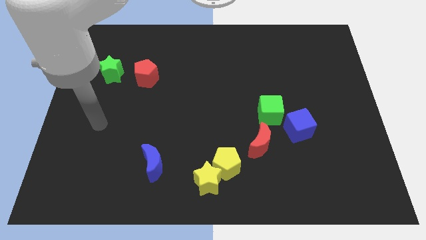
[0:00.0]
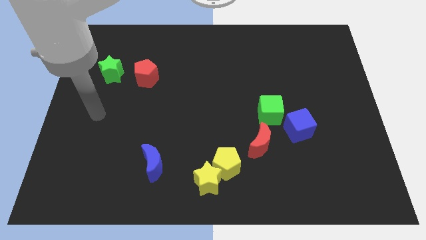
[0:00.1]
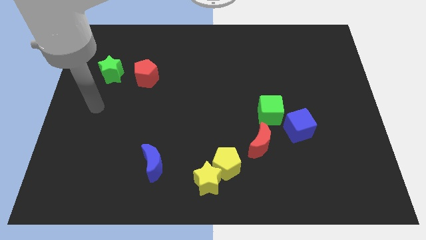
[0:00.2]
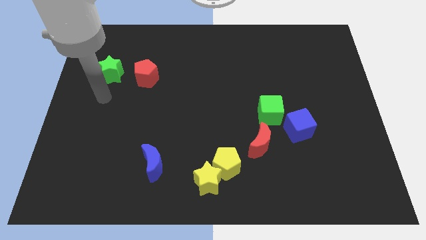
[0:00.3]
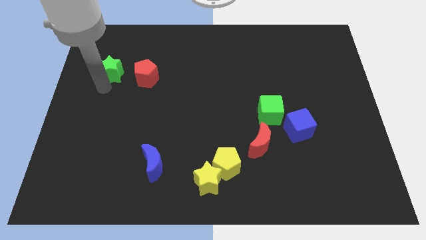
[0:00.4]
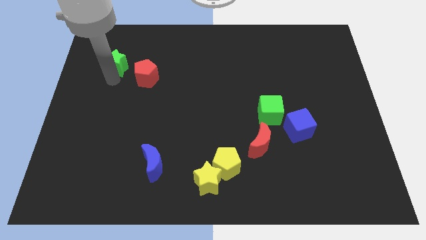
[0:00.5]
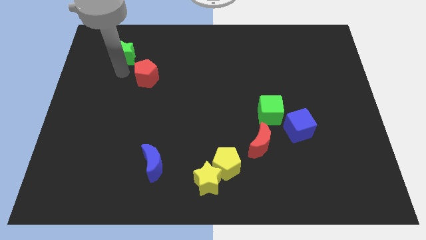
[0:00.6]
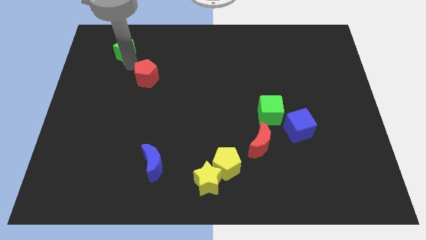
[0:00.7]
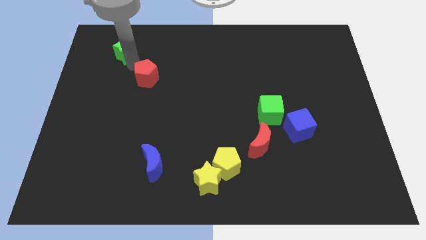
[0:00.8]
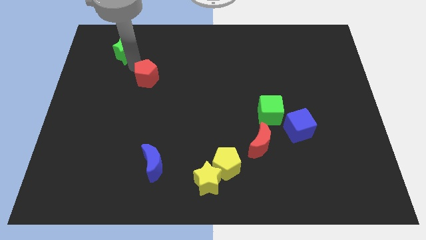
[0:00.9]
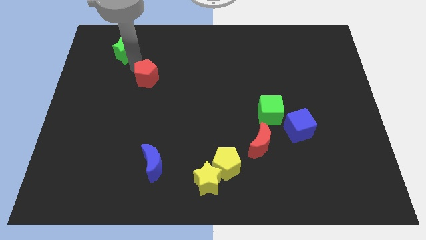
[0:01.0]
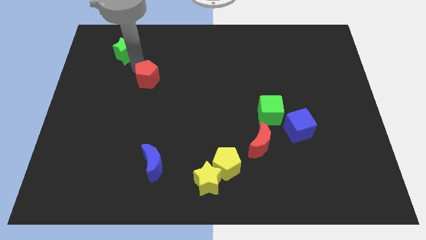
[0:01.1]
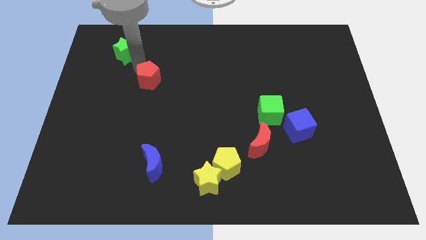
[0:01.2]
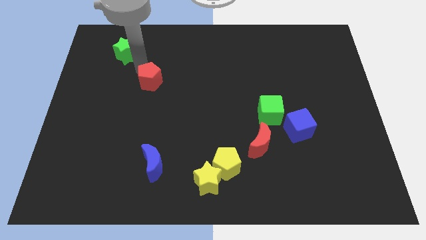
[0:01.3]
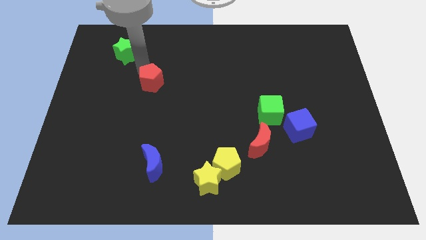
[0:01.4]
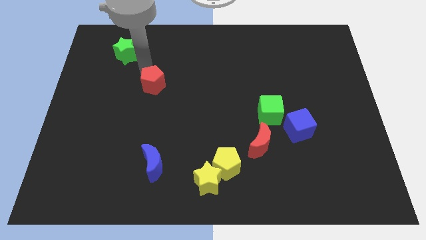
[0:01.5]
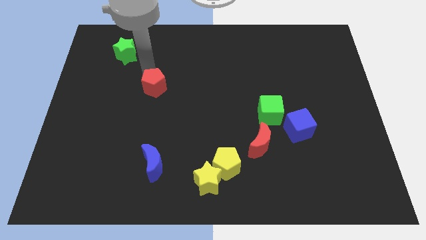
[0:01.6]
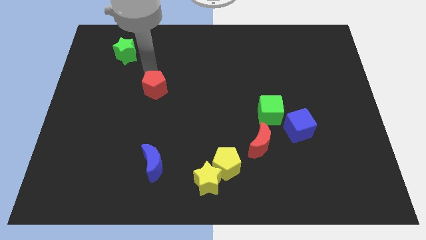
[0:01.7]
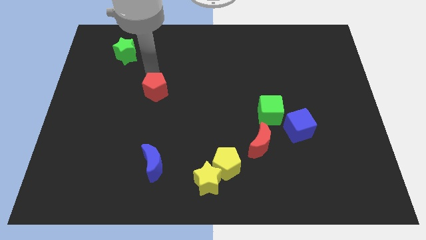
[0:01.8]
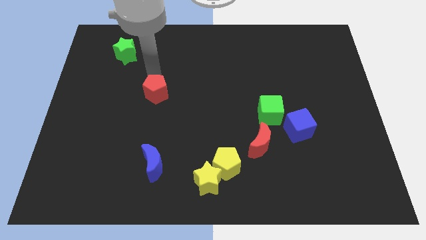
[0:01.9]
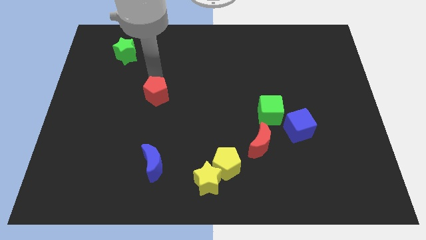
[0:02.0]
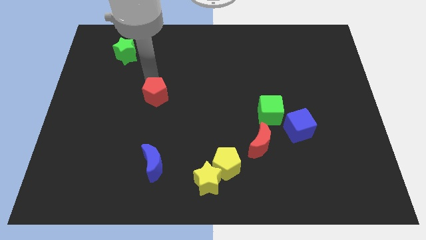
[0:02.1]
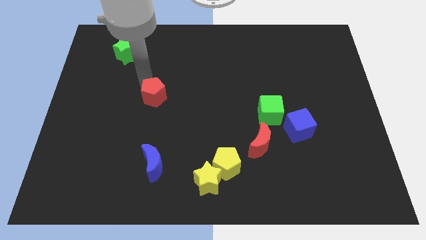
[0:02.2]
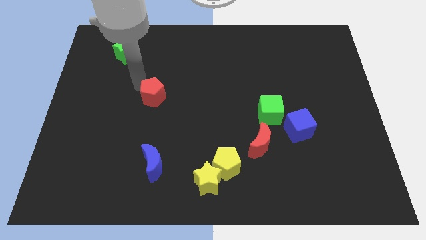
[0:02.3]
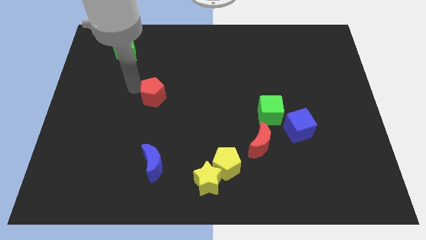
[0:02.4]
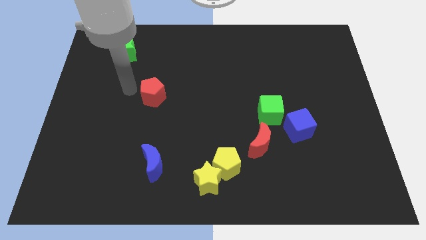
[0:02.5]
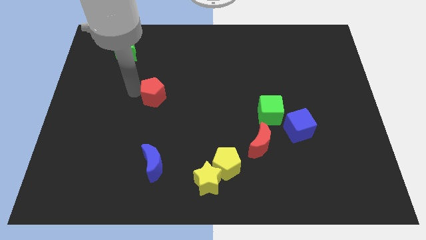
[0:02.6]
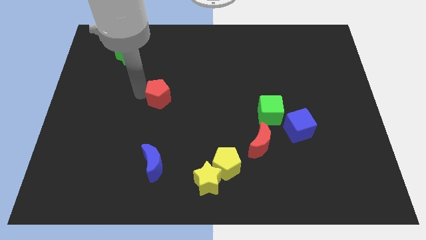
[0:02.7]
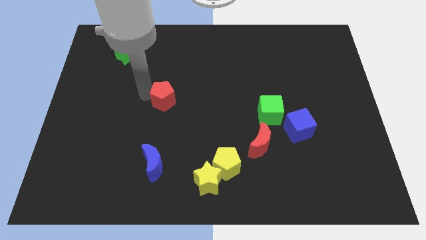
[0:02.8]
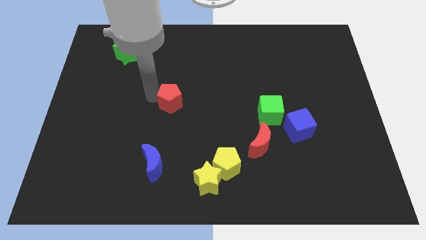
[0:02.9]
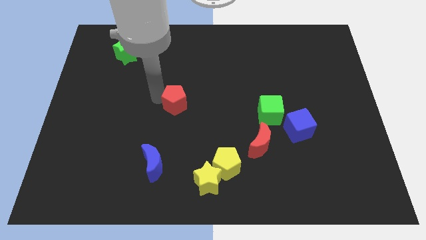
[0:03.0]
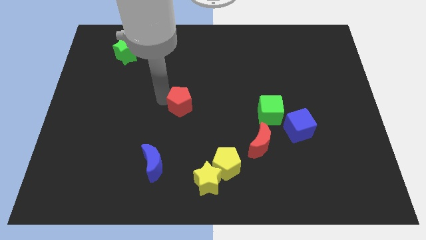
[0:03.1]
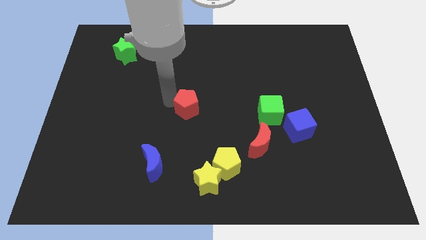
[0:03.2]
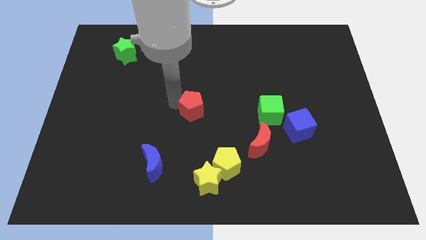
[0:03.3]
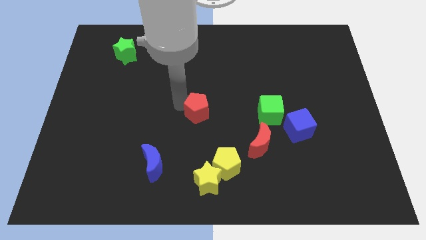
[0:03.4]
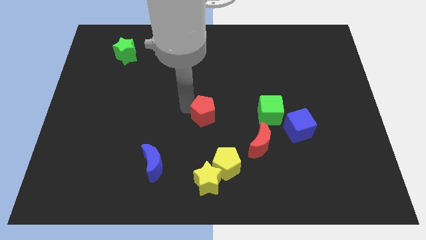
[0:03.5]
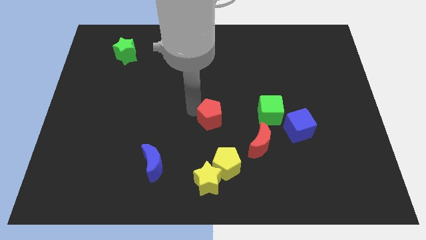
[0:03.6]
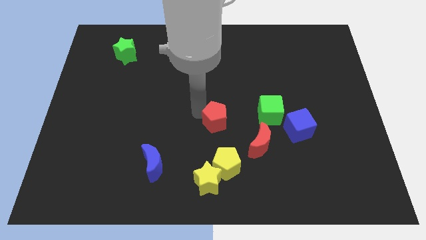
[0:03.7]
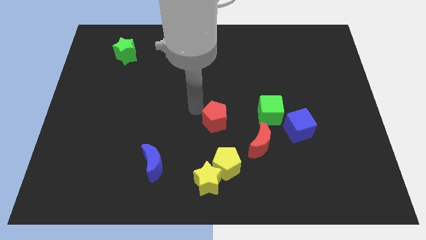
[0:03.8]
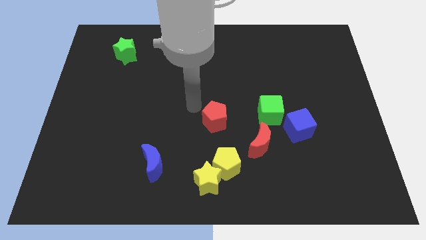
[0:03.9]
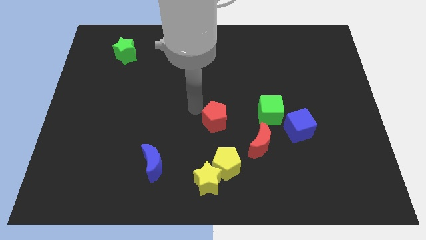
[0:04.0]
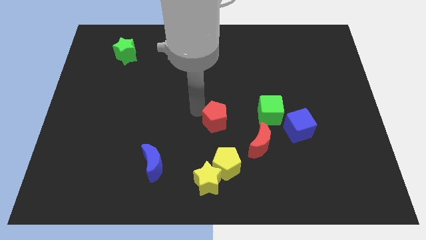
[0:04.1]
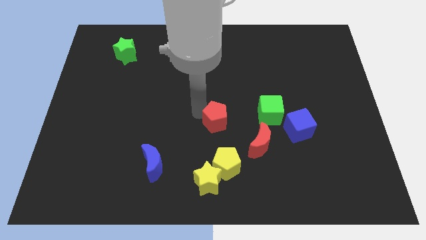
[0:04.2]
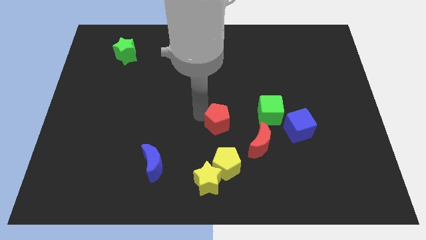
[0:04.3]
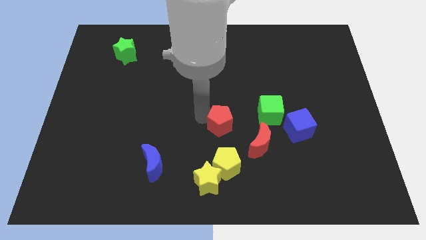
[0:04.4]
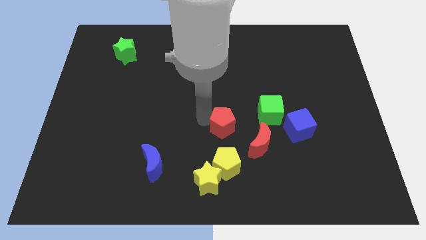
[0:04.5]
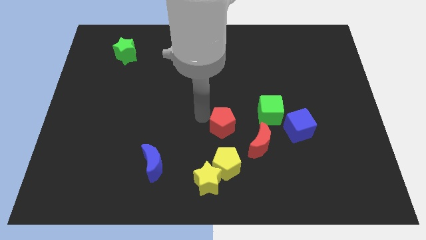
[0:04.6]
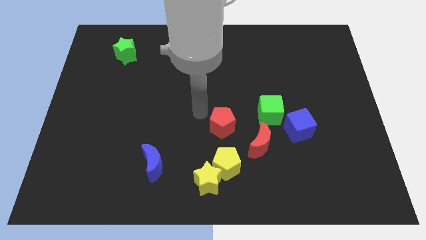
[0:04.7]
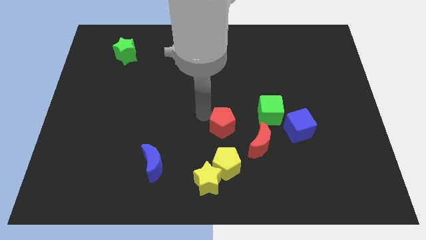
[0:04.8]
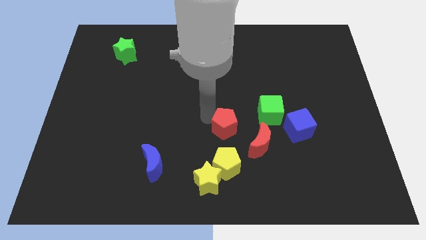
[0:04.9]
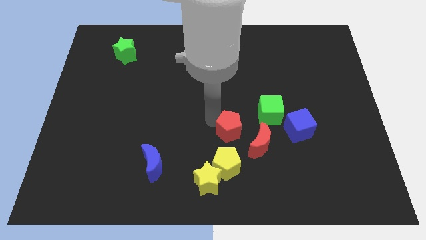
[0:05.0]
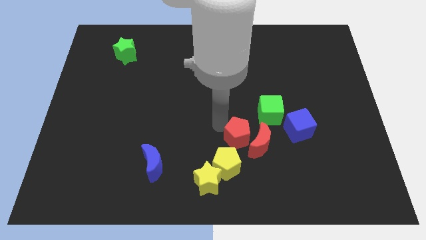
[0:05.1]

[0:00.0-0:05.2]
push the red pentagon close to the red moon

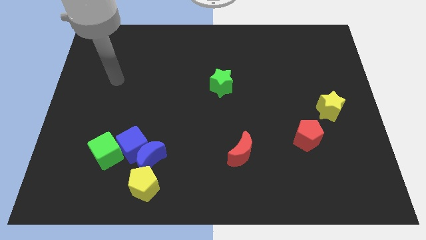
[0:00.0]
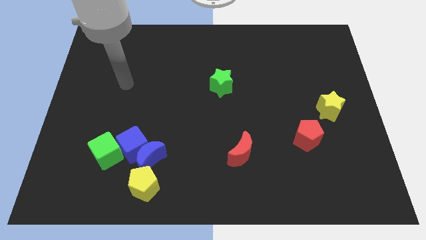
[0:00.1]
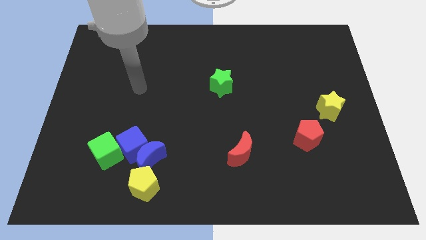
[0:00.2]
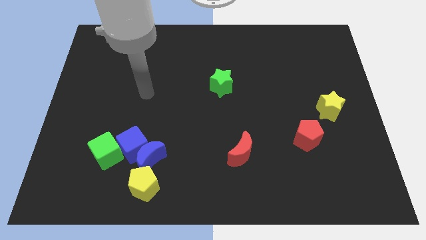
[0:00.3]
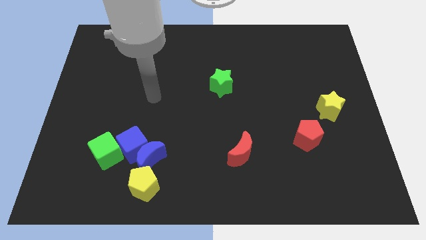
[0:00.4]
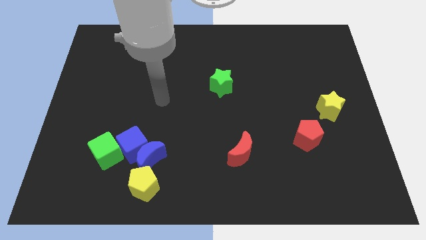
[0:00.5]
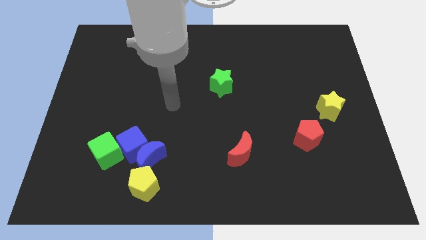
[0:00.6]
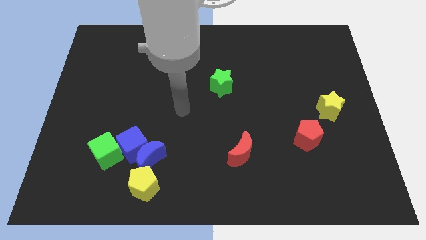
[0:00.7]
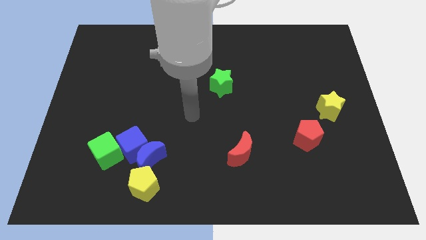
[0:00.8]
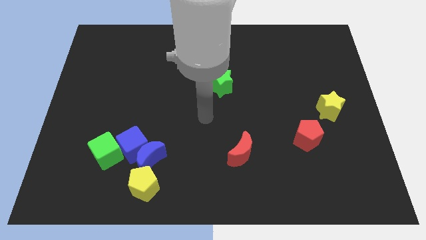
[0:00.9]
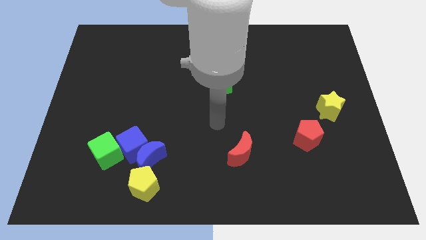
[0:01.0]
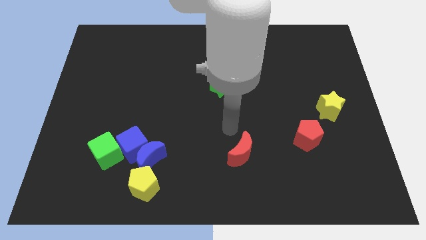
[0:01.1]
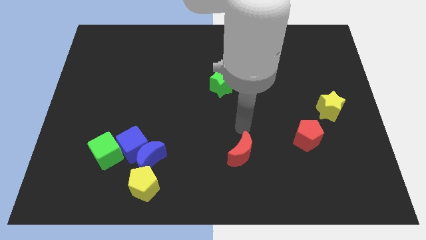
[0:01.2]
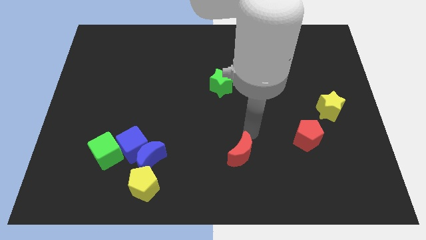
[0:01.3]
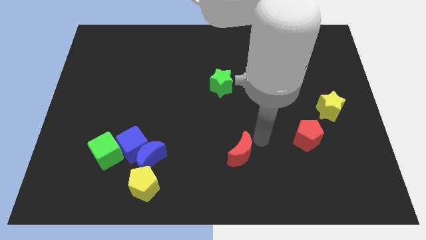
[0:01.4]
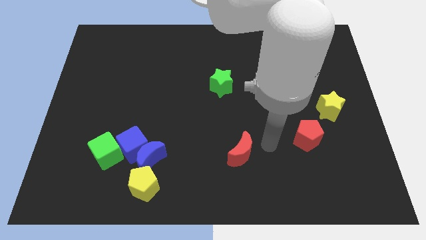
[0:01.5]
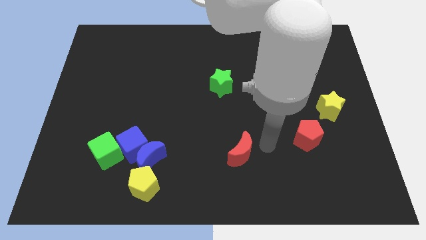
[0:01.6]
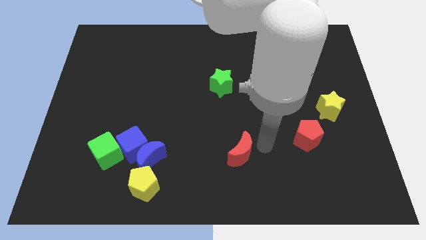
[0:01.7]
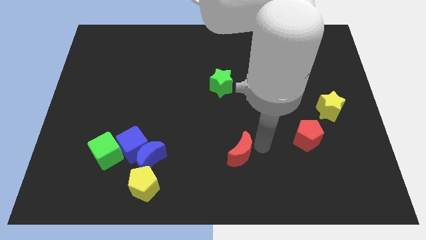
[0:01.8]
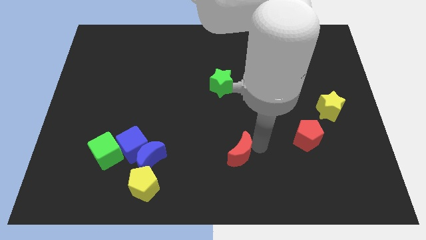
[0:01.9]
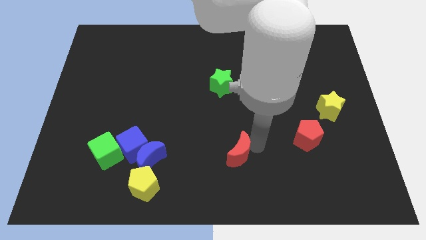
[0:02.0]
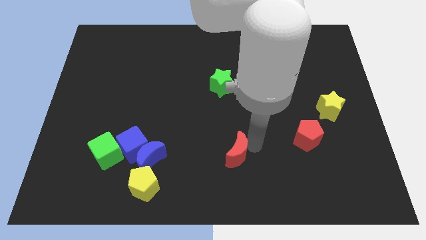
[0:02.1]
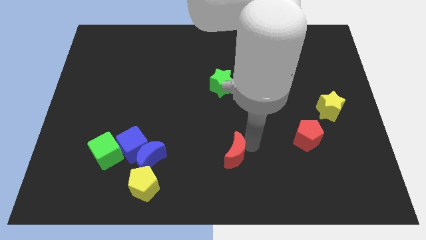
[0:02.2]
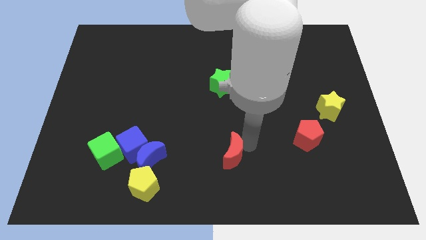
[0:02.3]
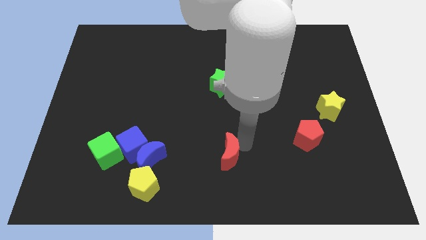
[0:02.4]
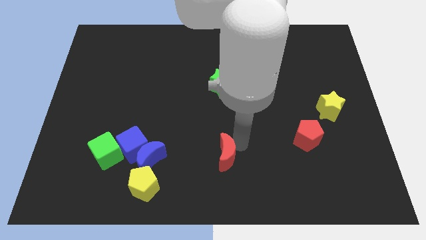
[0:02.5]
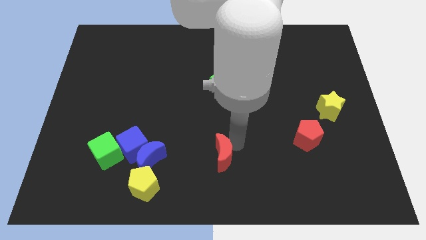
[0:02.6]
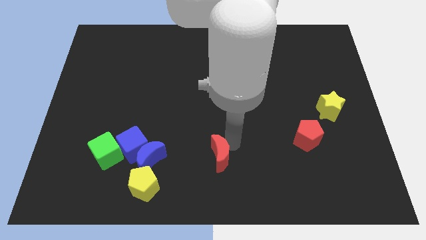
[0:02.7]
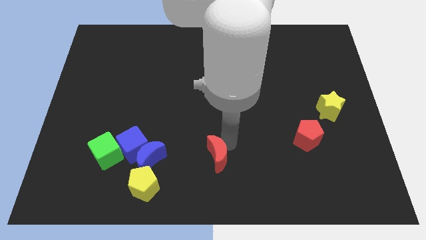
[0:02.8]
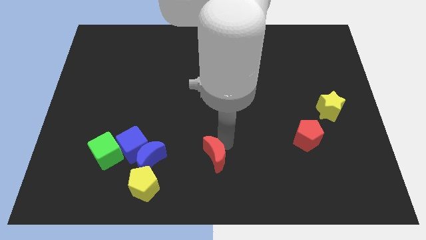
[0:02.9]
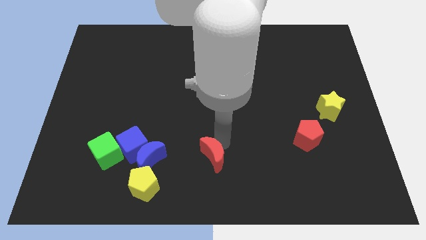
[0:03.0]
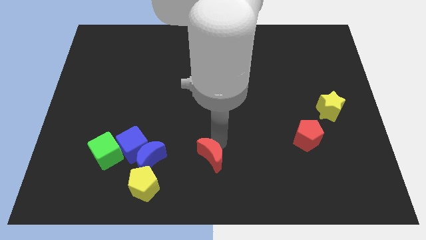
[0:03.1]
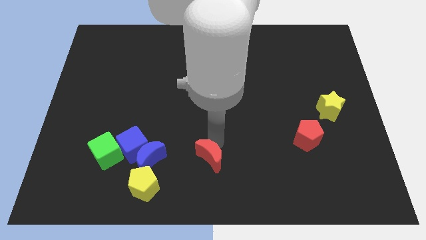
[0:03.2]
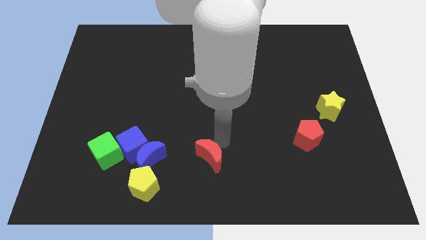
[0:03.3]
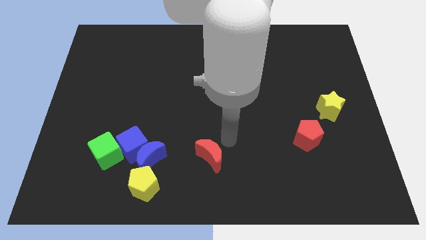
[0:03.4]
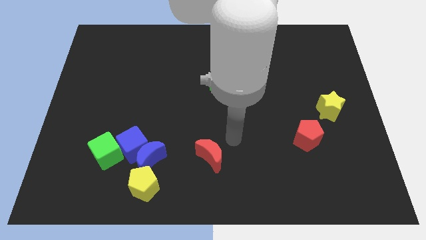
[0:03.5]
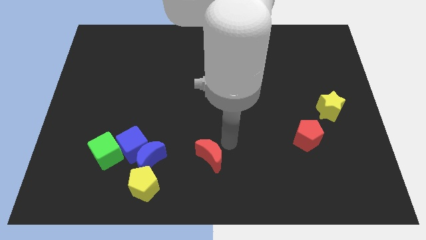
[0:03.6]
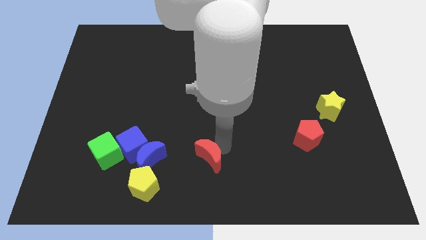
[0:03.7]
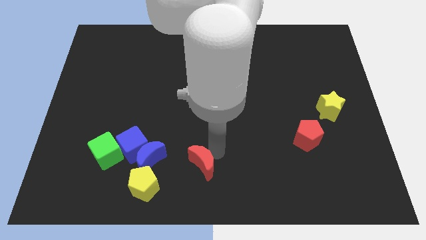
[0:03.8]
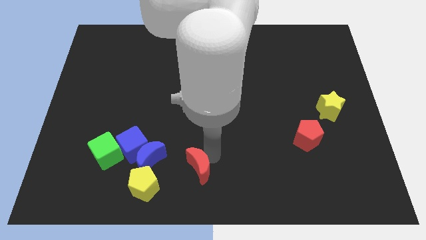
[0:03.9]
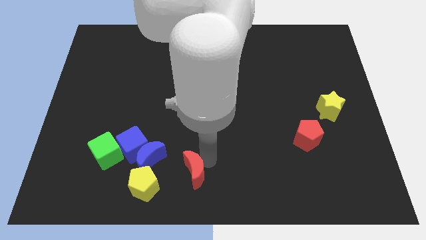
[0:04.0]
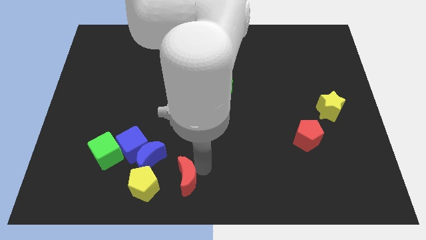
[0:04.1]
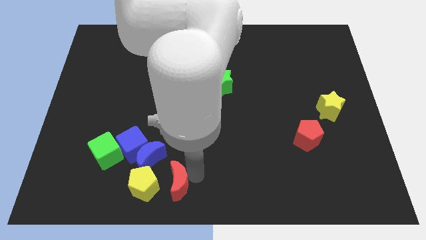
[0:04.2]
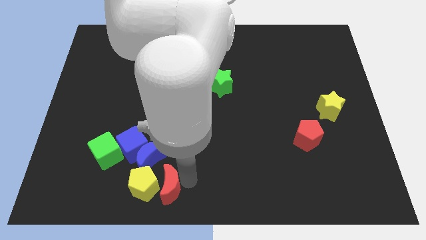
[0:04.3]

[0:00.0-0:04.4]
move the red moon to the yellow pentagon
